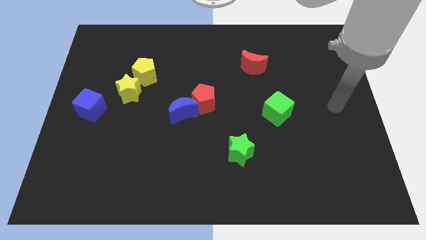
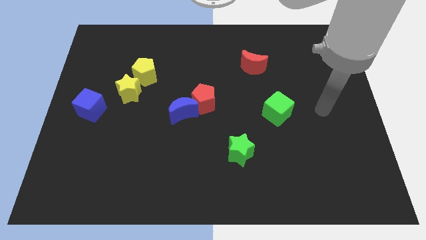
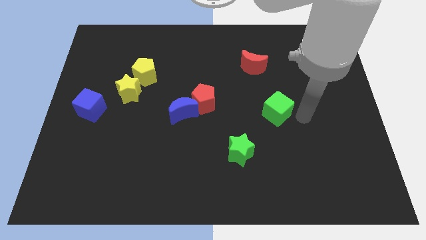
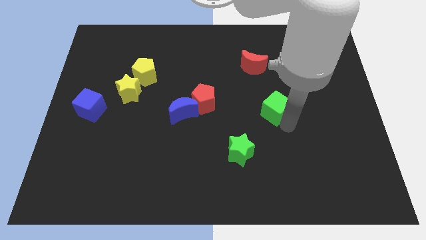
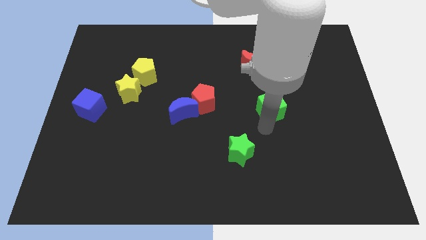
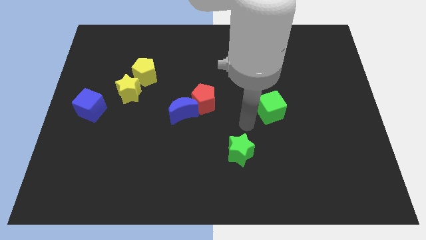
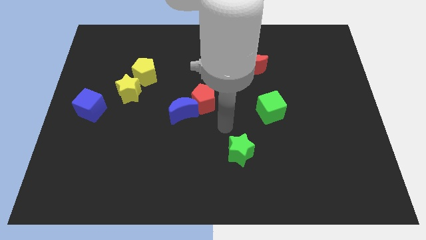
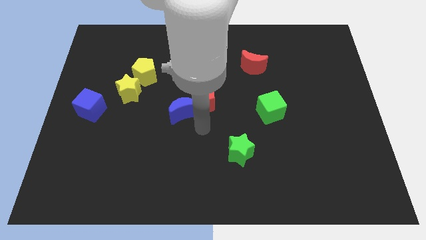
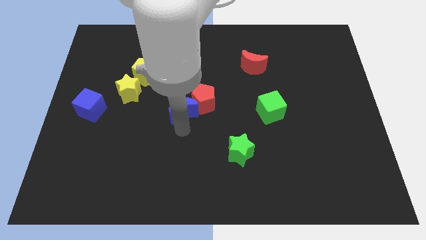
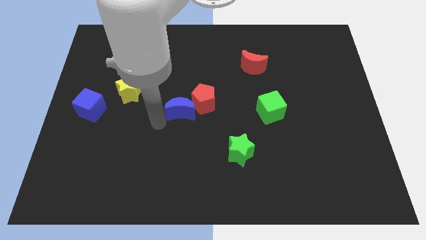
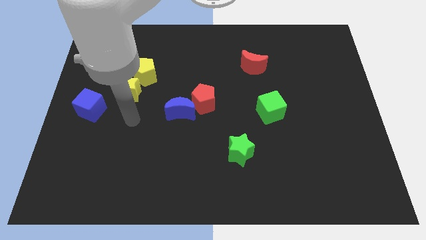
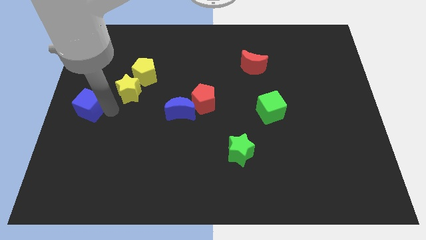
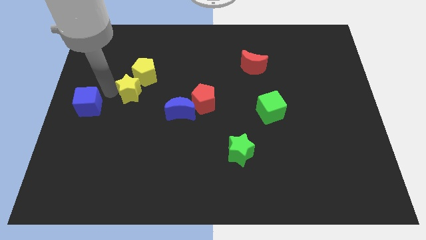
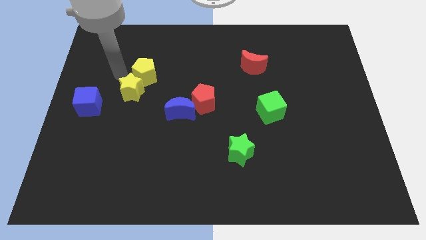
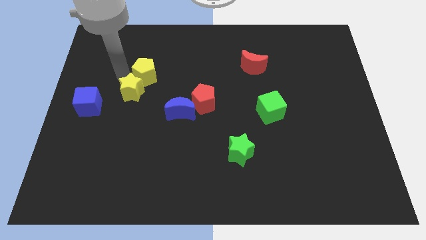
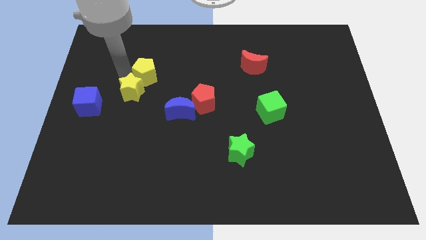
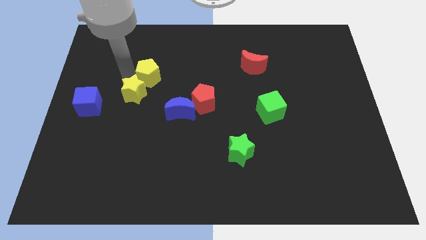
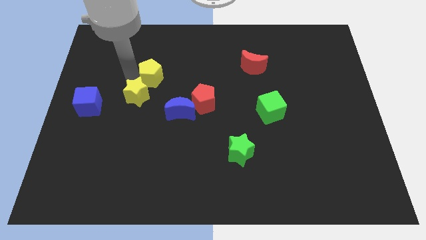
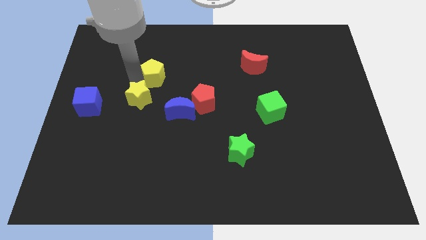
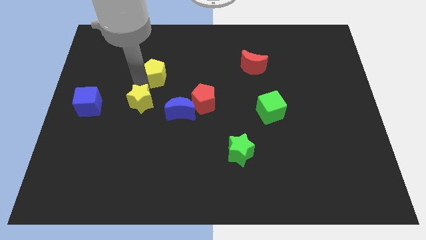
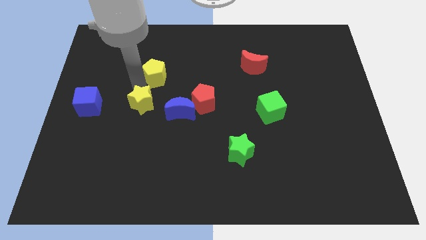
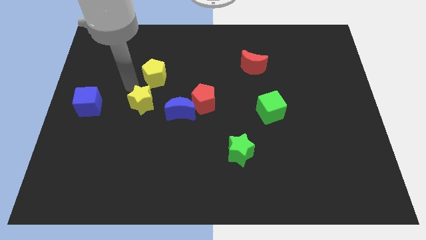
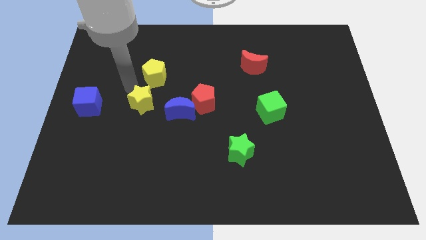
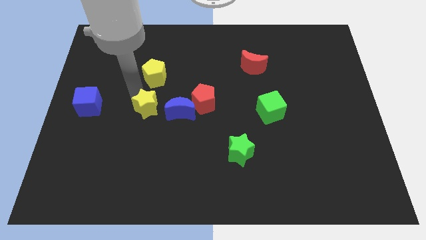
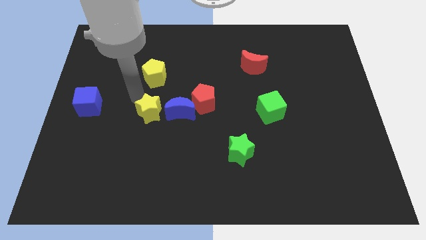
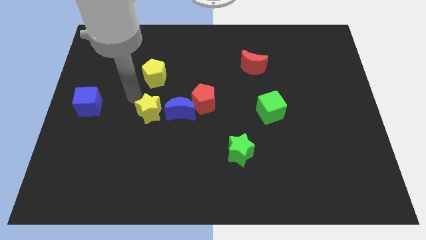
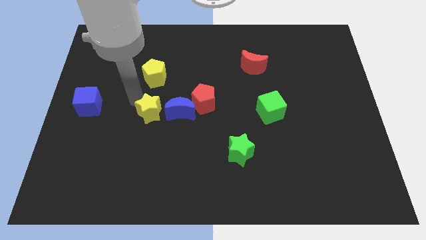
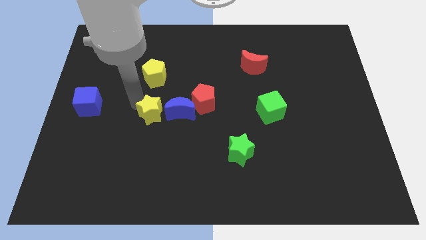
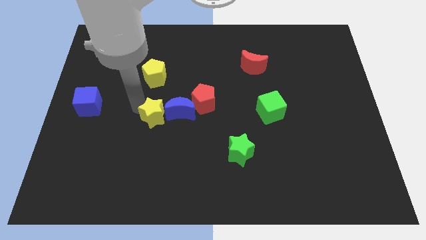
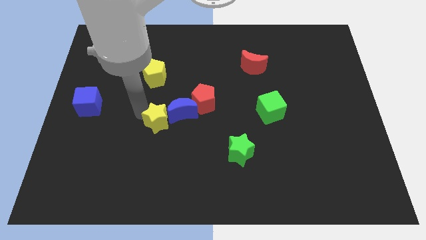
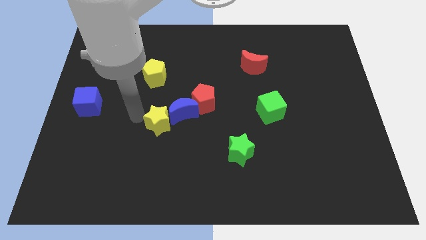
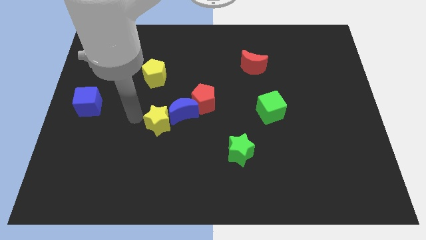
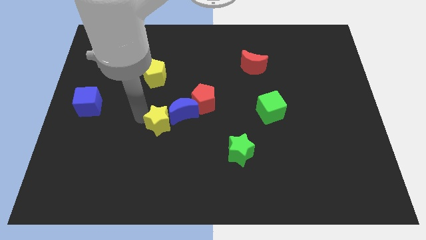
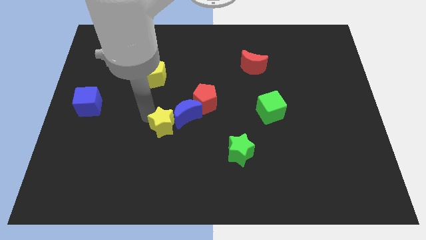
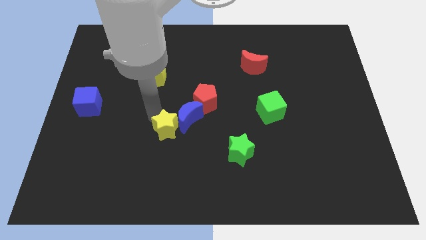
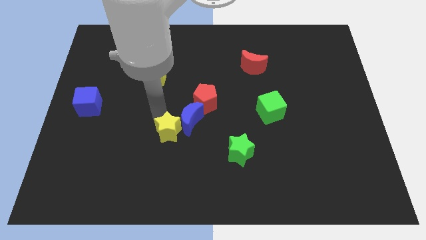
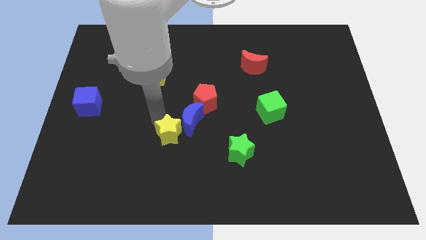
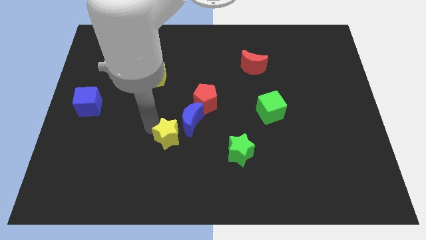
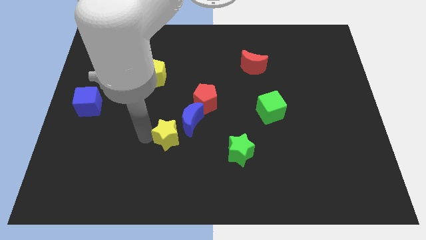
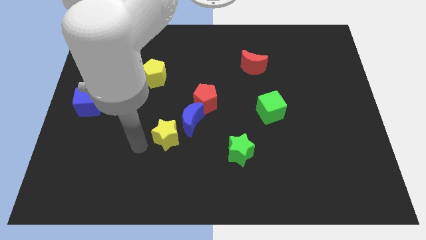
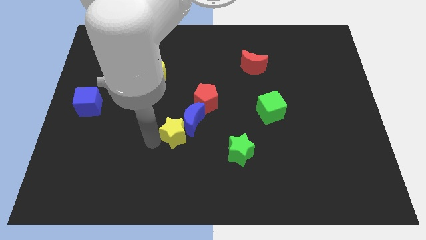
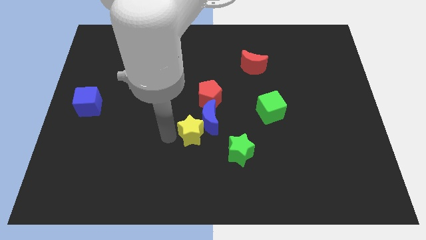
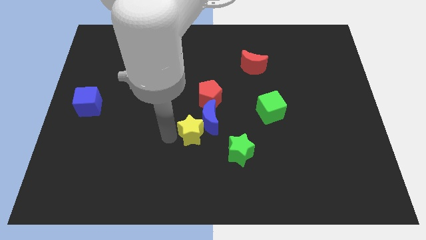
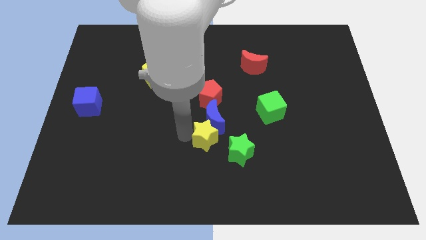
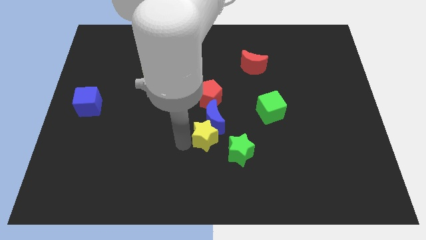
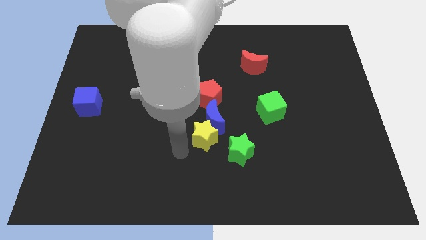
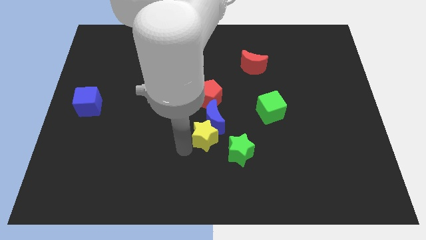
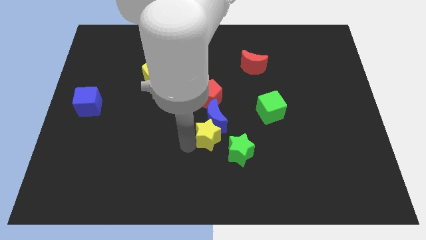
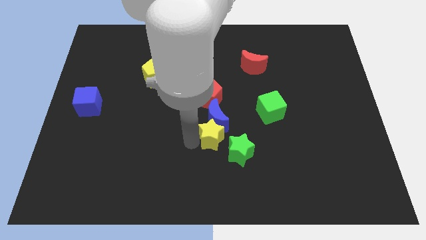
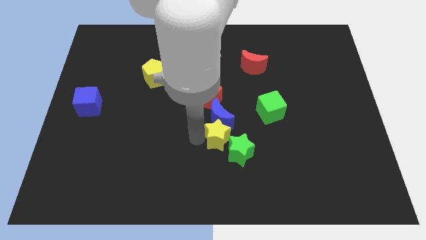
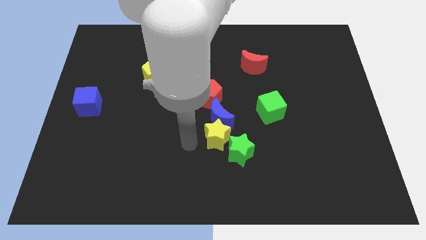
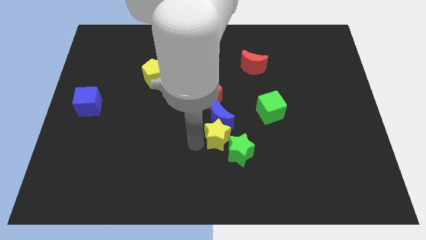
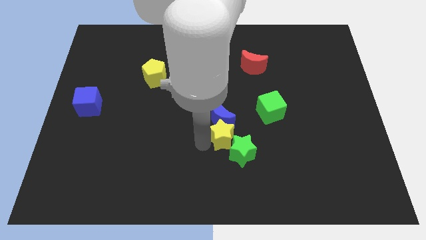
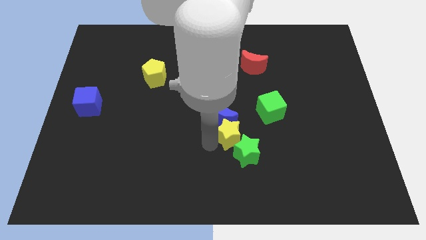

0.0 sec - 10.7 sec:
put the yellow star to the bottom left of the green cube

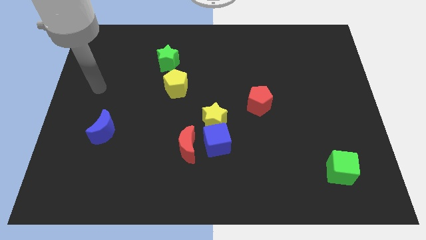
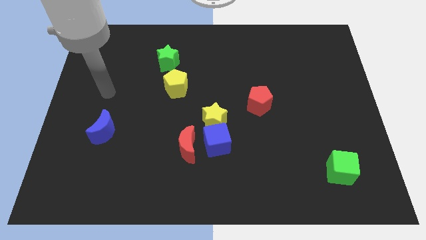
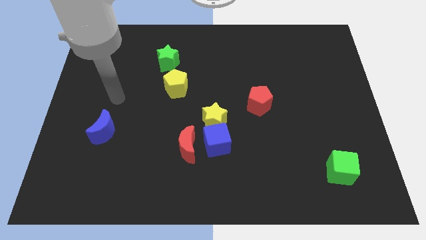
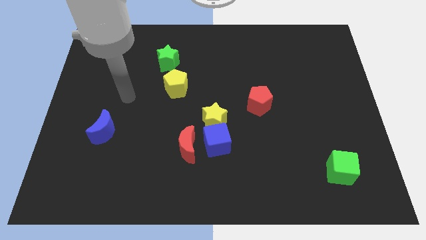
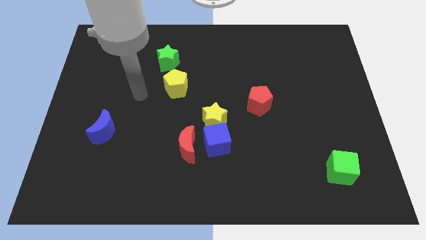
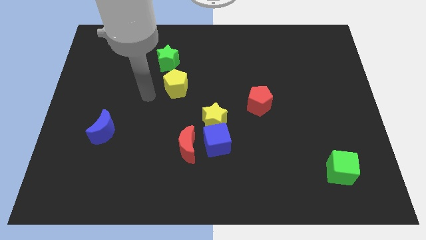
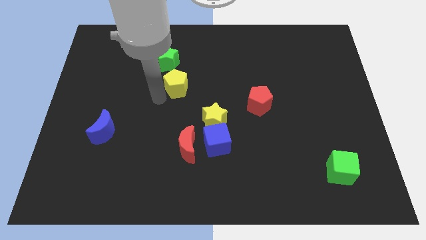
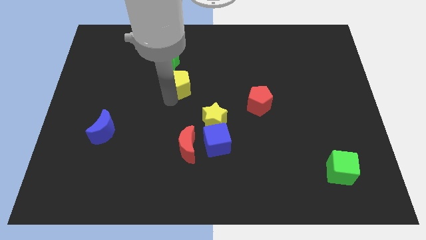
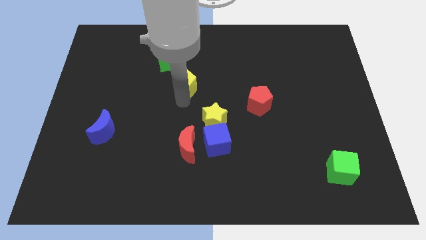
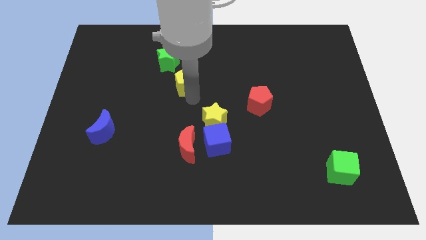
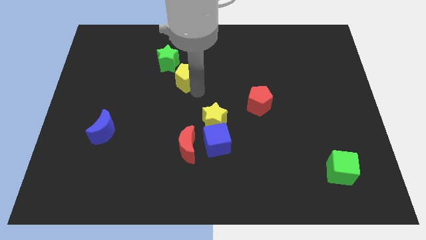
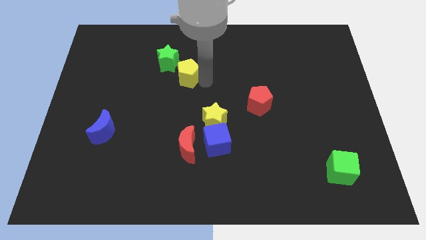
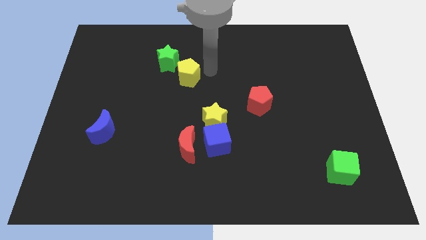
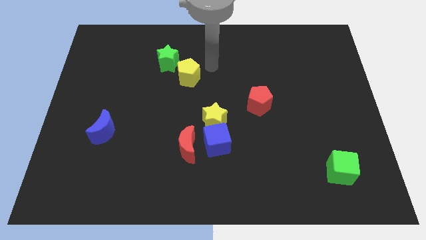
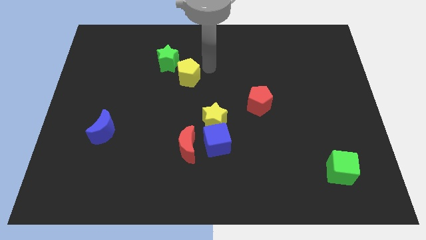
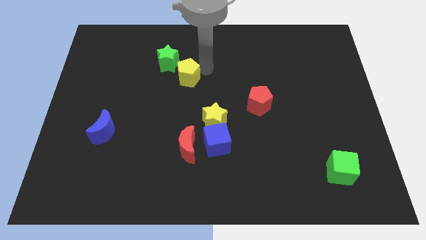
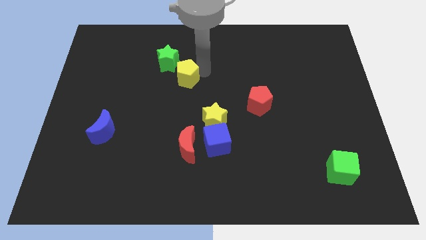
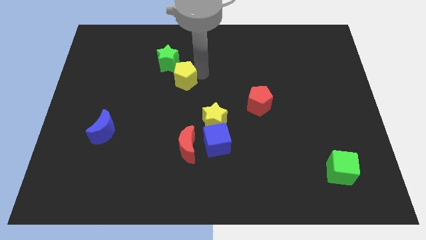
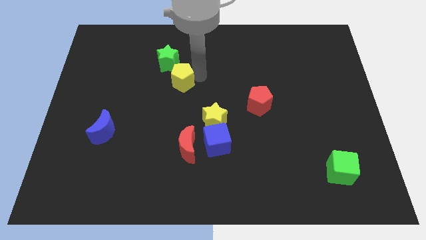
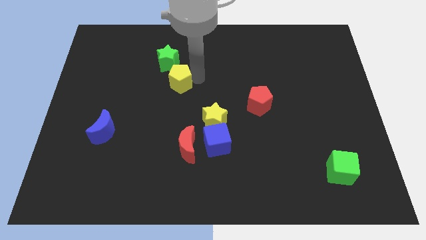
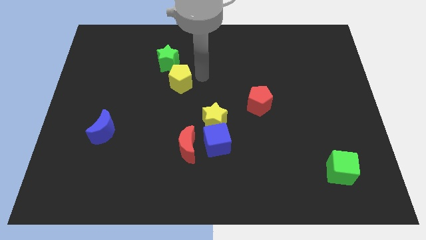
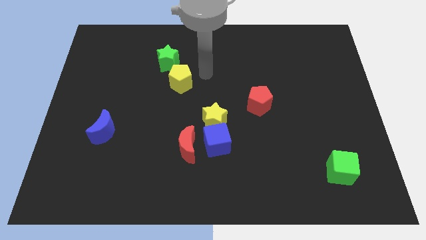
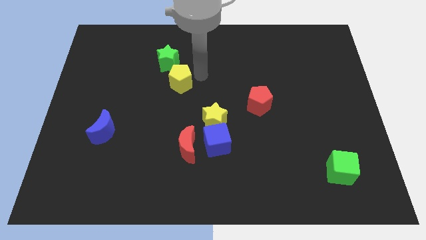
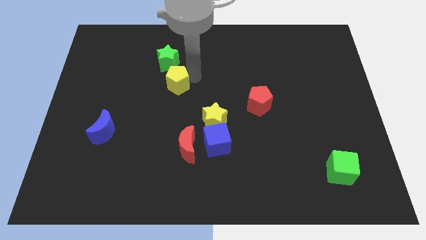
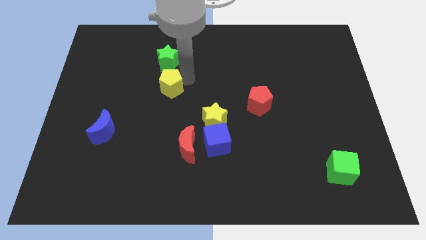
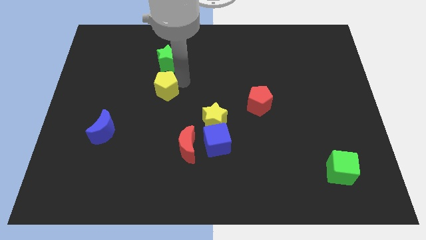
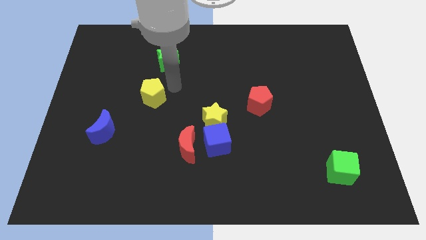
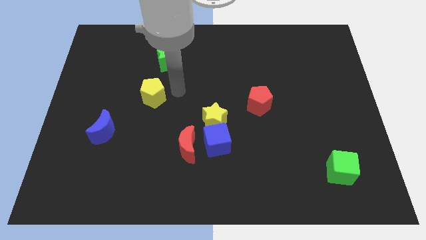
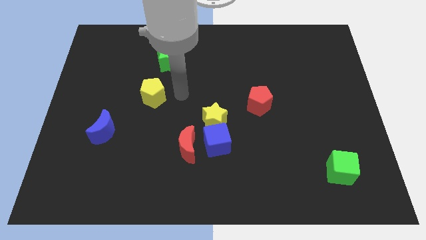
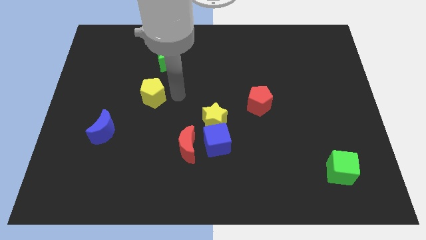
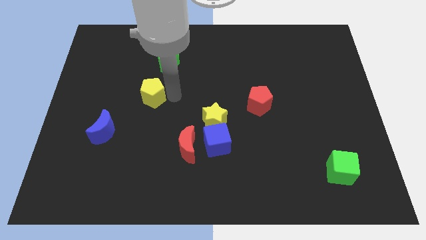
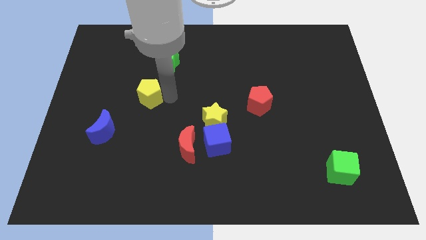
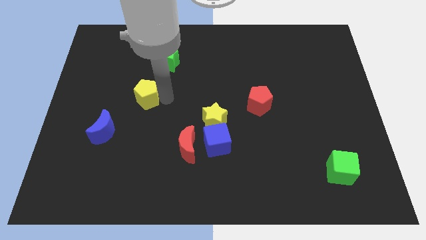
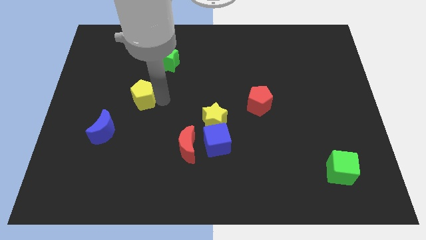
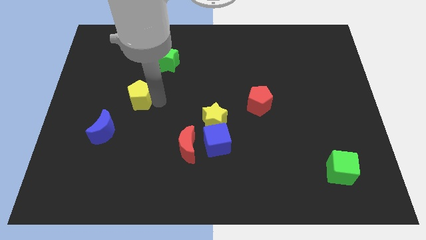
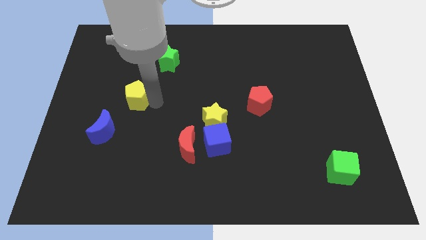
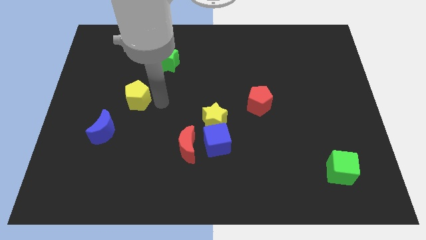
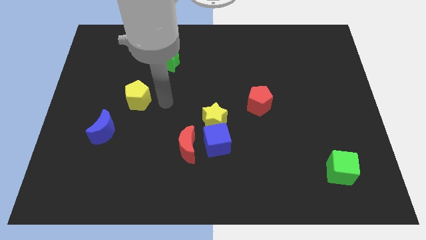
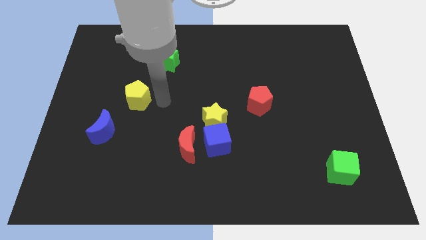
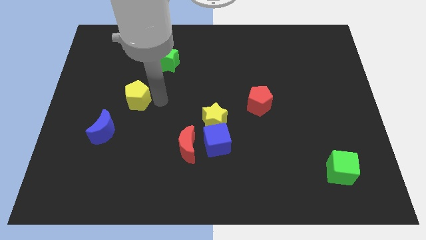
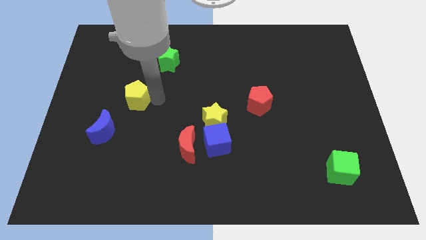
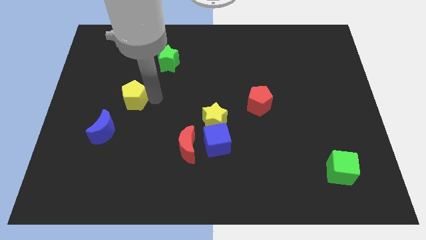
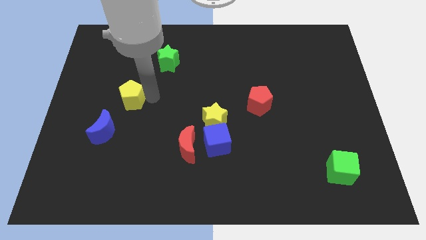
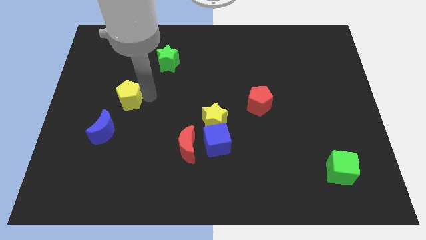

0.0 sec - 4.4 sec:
put the yellow pentagon above the blue moon
